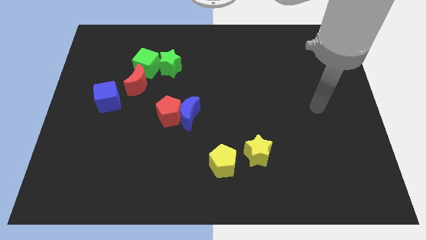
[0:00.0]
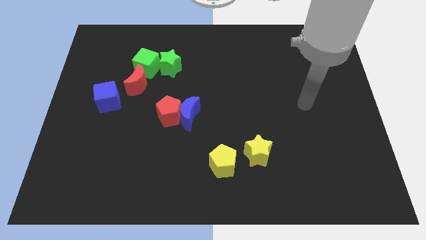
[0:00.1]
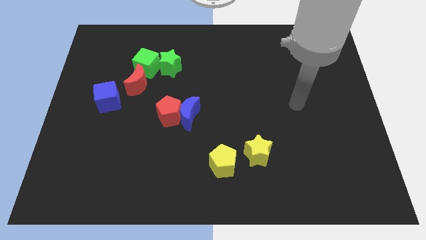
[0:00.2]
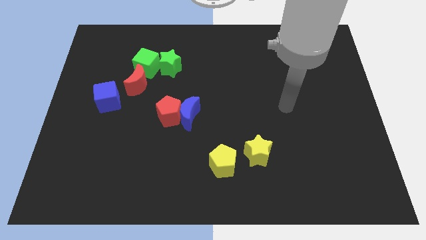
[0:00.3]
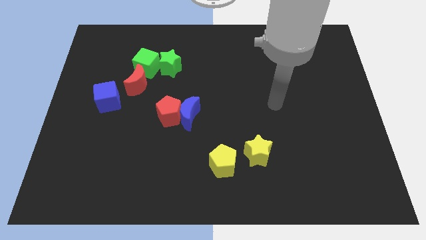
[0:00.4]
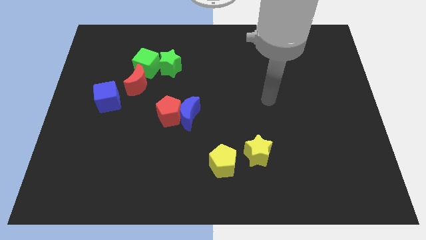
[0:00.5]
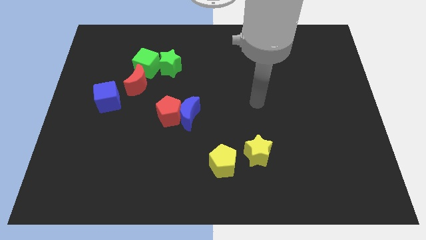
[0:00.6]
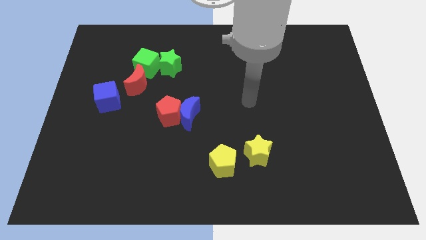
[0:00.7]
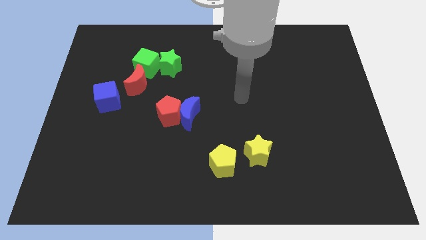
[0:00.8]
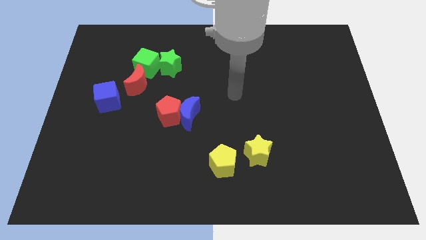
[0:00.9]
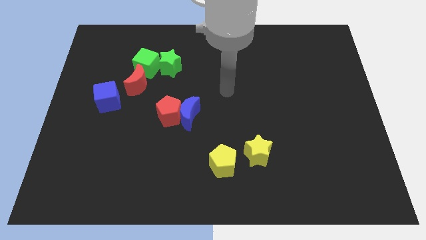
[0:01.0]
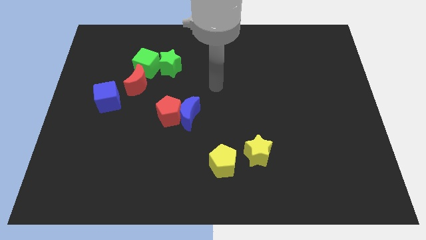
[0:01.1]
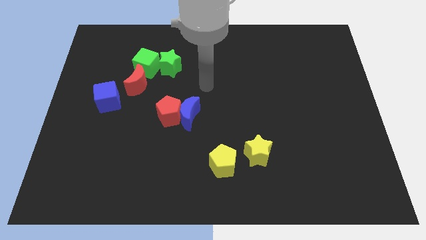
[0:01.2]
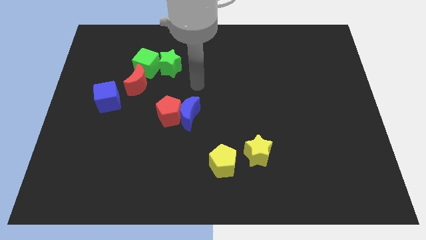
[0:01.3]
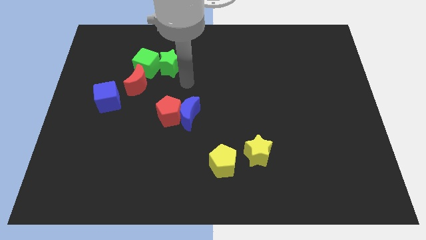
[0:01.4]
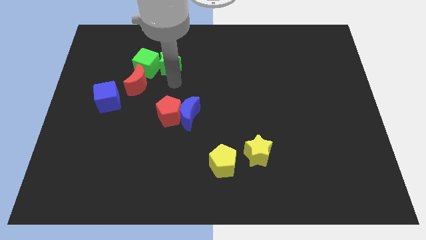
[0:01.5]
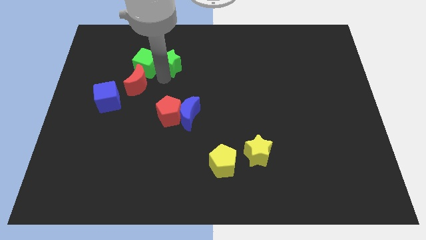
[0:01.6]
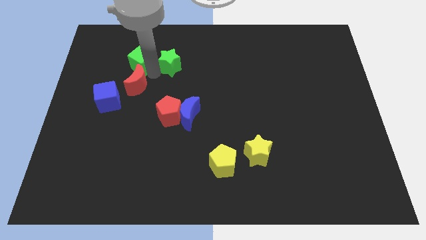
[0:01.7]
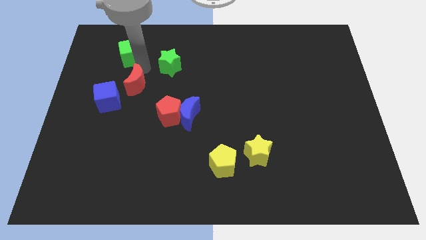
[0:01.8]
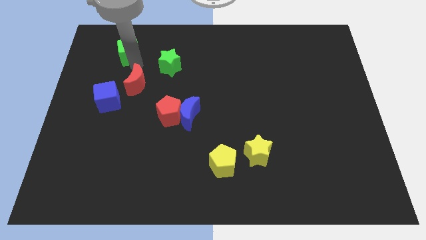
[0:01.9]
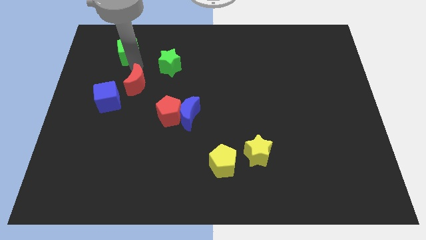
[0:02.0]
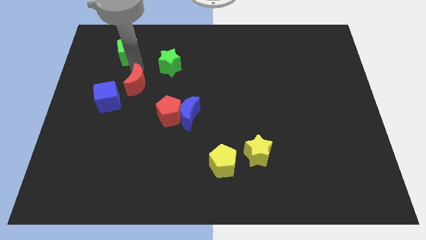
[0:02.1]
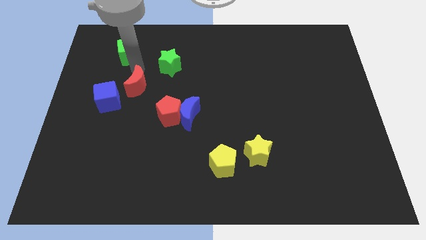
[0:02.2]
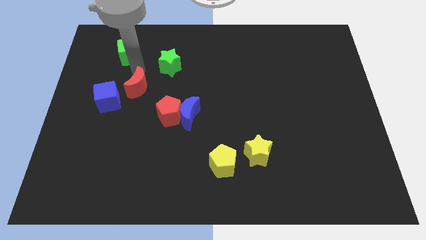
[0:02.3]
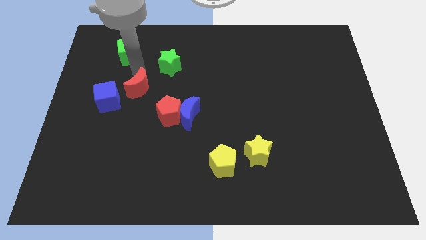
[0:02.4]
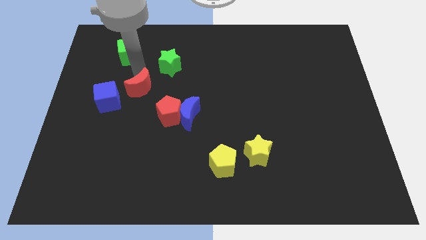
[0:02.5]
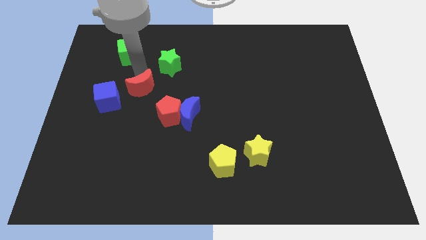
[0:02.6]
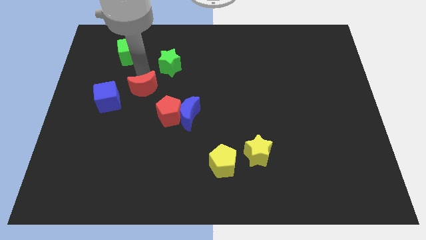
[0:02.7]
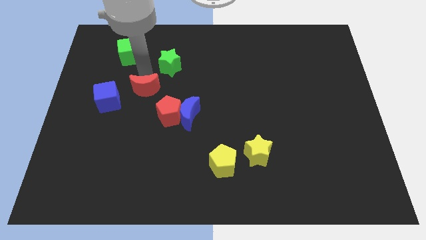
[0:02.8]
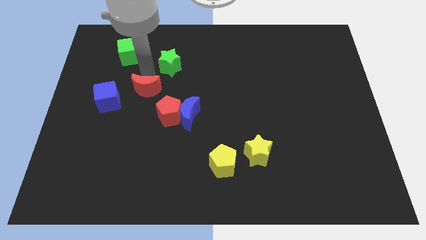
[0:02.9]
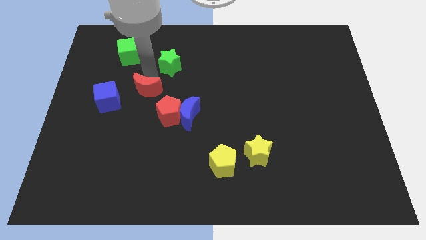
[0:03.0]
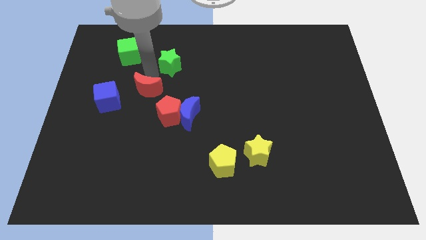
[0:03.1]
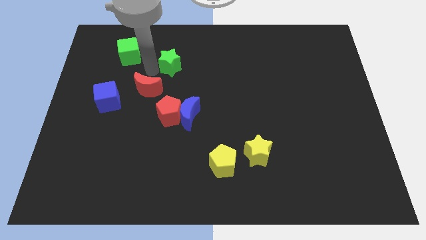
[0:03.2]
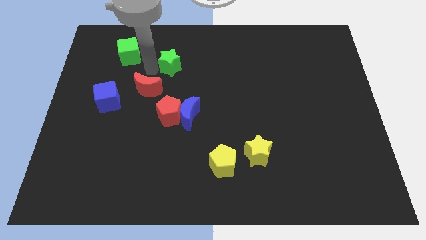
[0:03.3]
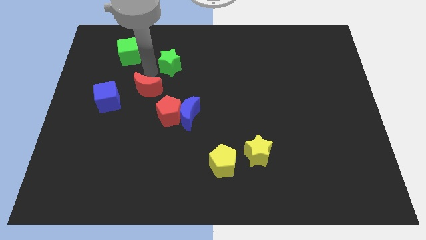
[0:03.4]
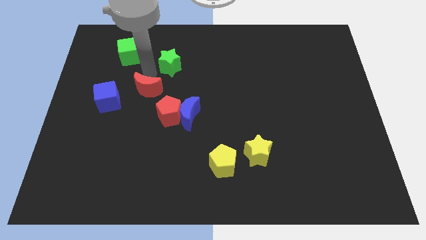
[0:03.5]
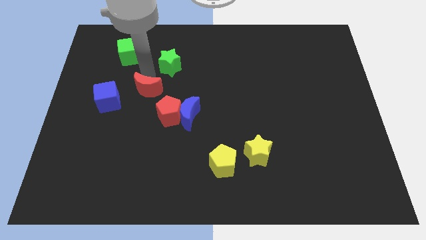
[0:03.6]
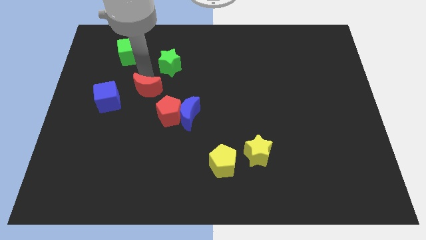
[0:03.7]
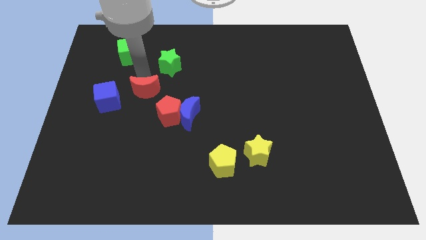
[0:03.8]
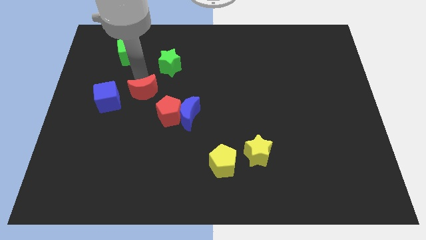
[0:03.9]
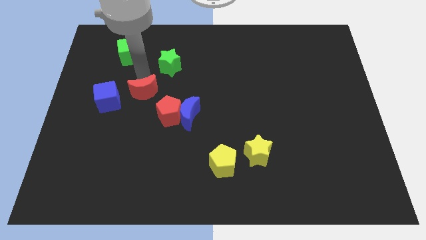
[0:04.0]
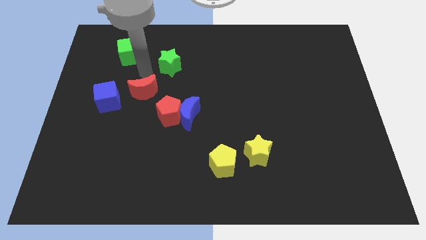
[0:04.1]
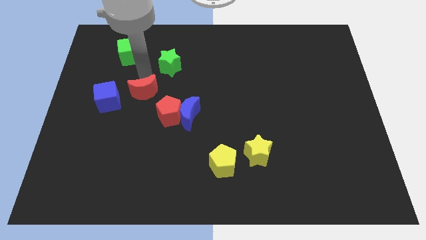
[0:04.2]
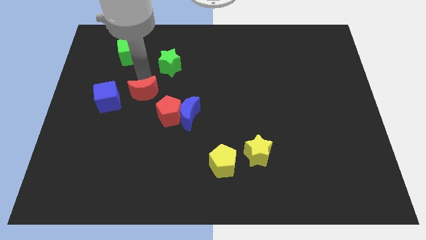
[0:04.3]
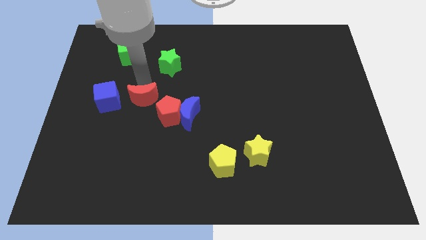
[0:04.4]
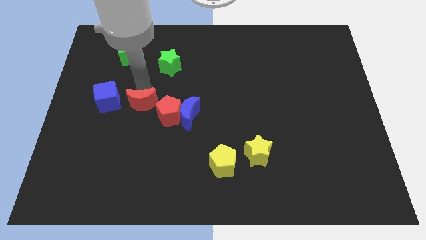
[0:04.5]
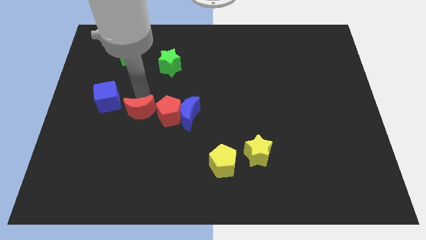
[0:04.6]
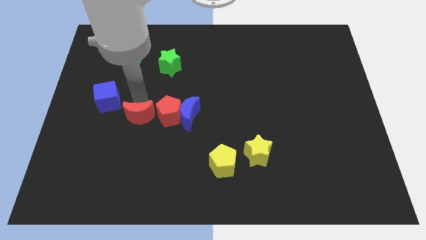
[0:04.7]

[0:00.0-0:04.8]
put the red moon to the bottom left of the red pentagon

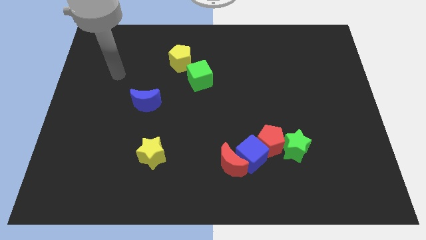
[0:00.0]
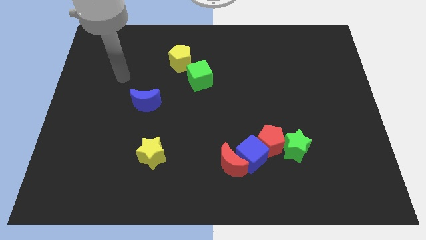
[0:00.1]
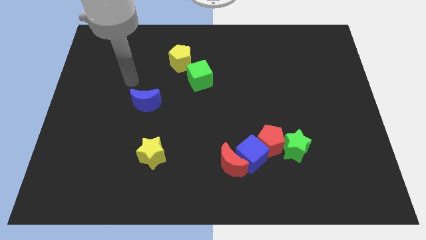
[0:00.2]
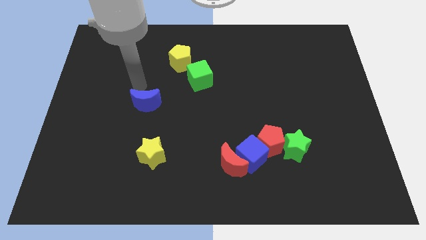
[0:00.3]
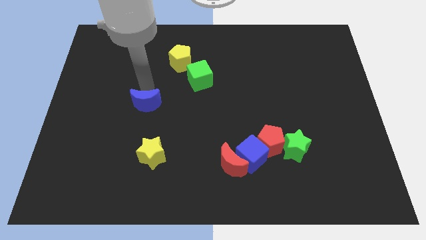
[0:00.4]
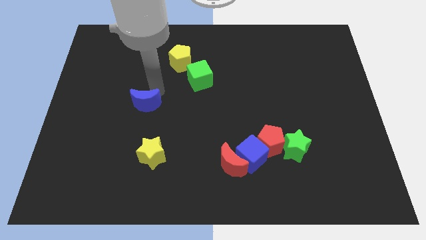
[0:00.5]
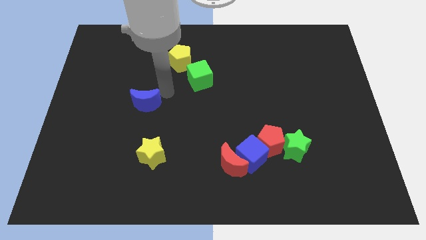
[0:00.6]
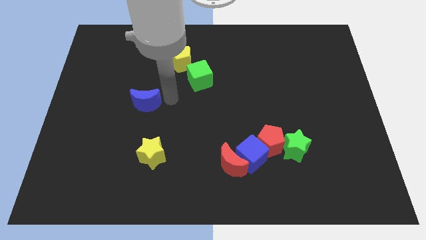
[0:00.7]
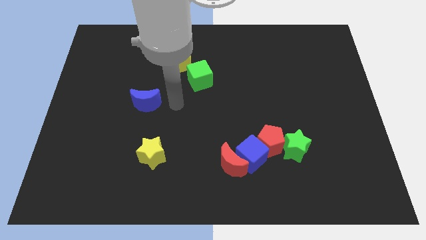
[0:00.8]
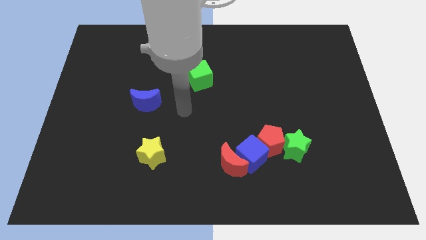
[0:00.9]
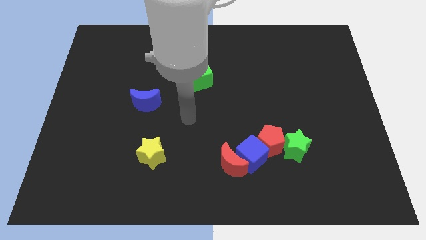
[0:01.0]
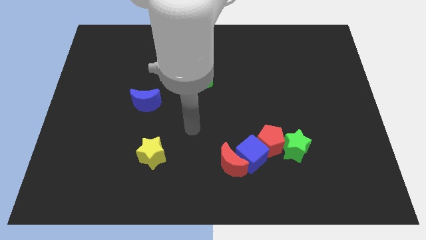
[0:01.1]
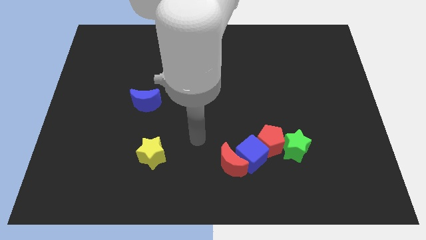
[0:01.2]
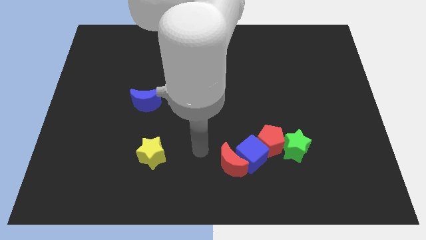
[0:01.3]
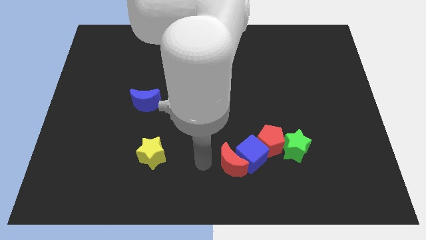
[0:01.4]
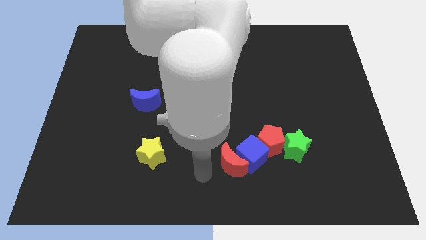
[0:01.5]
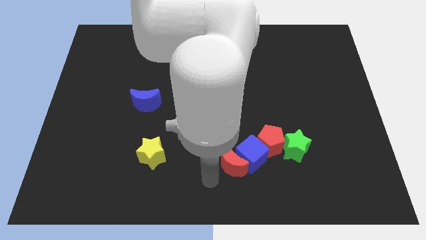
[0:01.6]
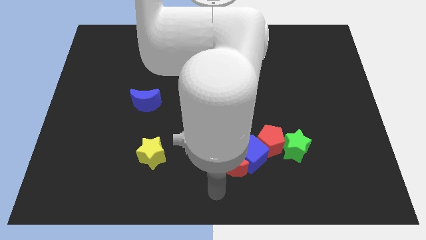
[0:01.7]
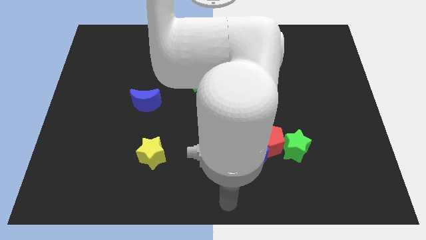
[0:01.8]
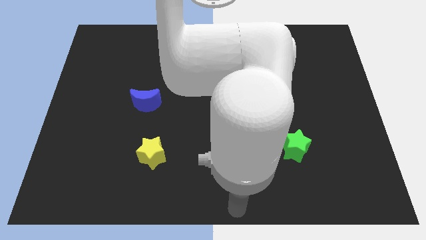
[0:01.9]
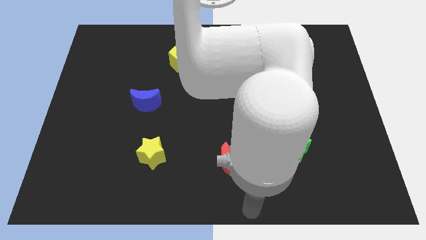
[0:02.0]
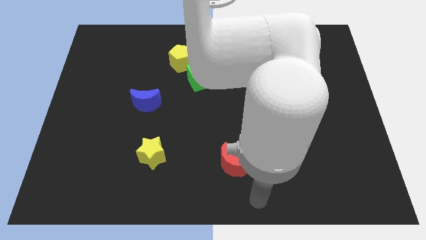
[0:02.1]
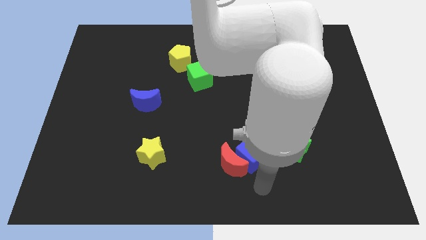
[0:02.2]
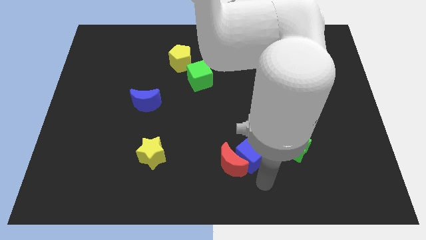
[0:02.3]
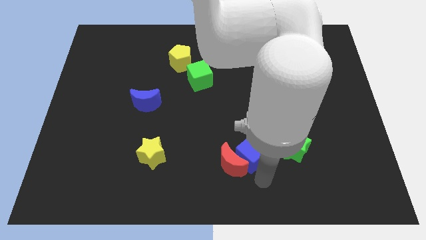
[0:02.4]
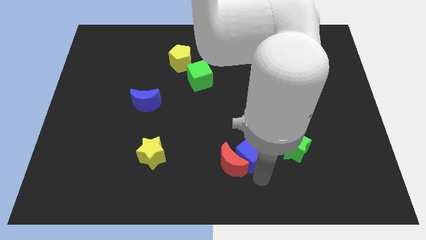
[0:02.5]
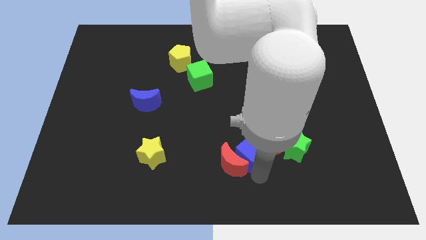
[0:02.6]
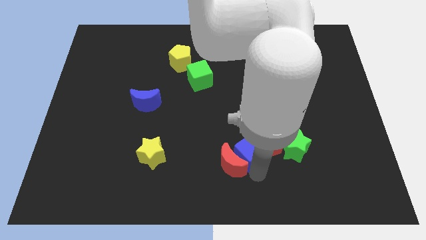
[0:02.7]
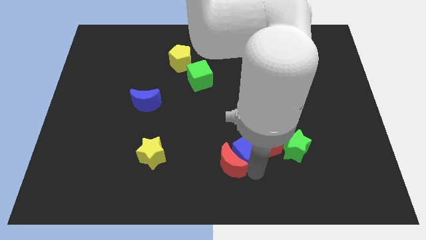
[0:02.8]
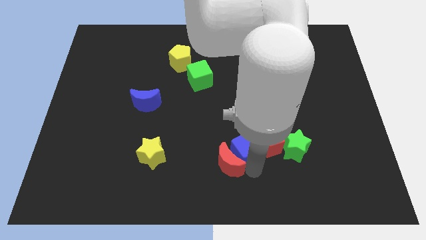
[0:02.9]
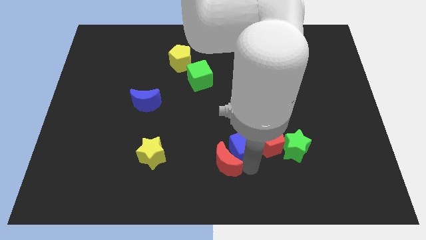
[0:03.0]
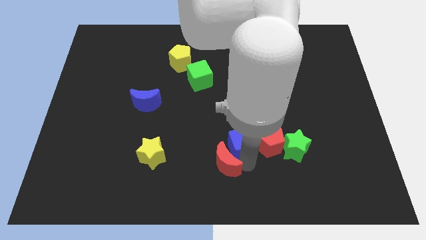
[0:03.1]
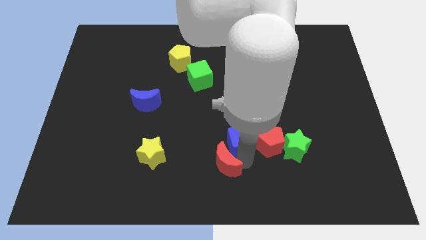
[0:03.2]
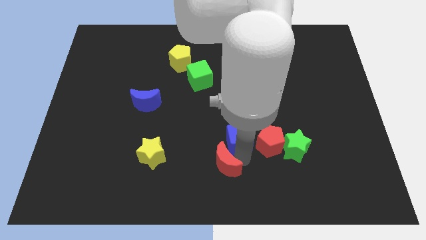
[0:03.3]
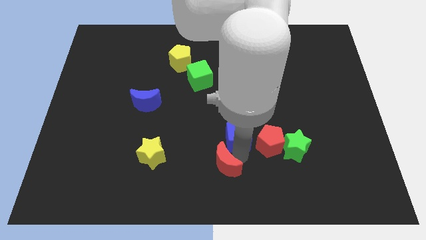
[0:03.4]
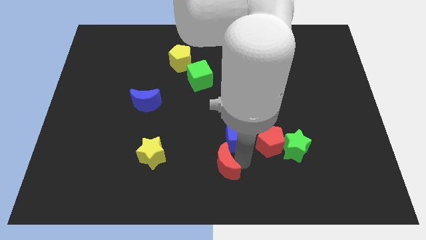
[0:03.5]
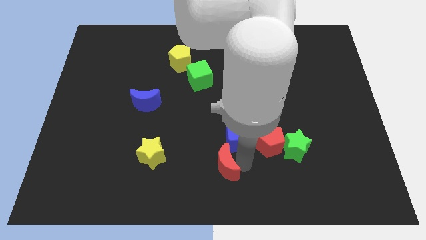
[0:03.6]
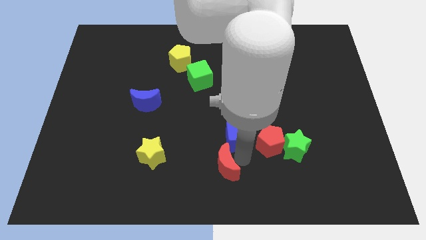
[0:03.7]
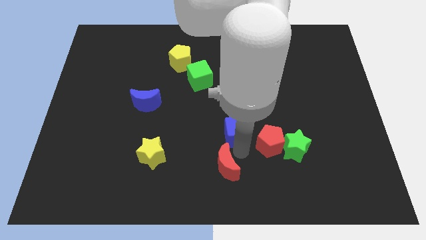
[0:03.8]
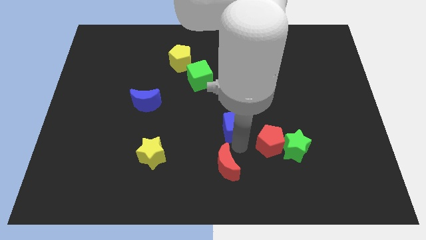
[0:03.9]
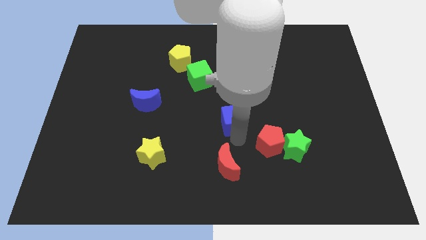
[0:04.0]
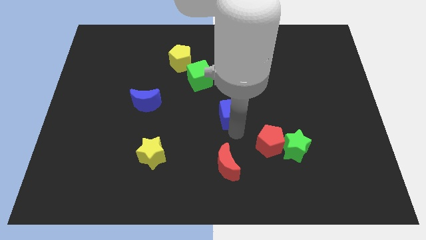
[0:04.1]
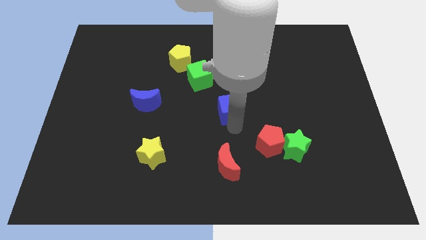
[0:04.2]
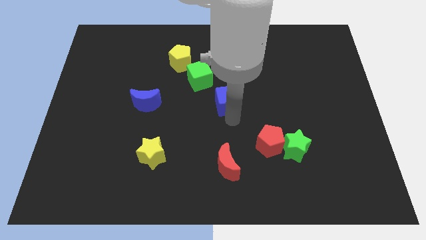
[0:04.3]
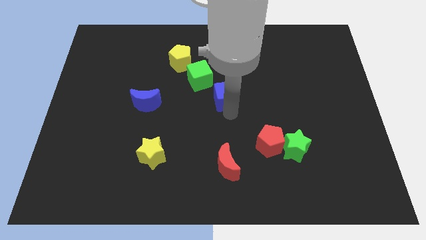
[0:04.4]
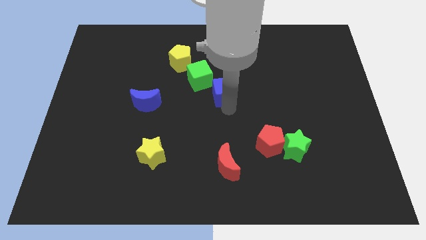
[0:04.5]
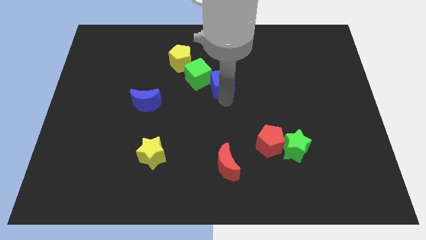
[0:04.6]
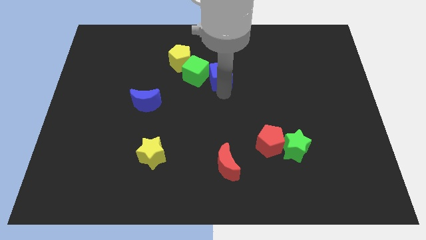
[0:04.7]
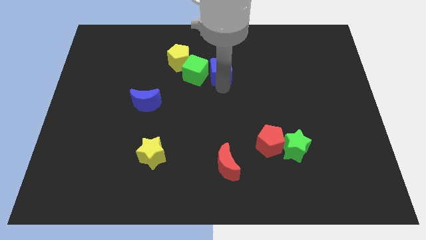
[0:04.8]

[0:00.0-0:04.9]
move the blue cube to the top right of the green cube
